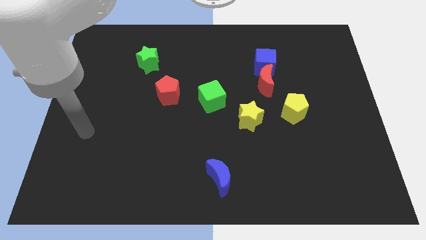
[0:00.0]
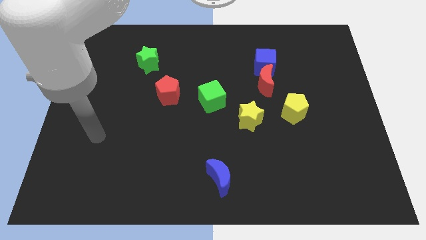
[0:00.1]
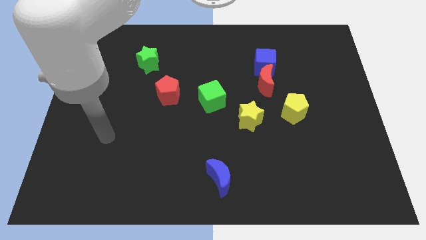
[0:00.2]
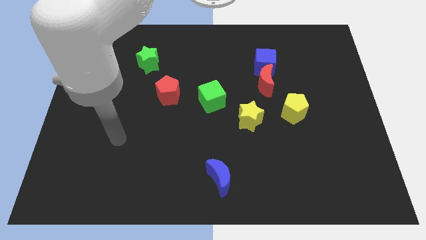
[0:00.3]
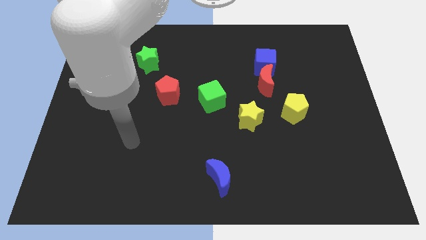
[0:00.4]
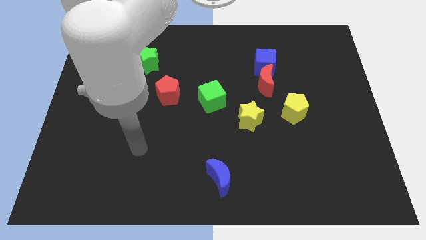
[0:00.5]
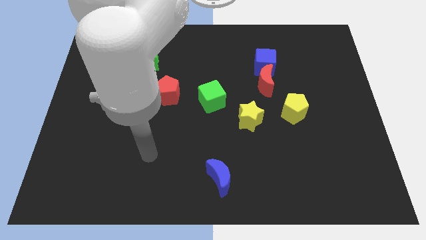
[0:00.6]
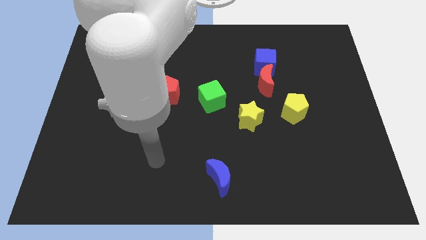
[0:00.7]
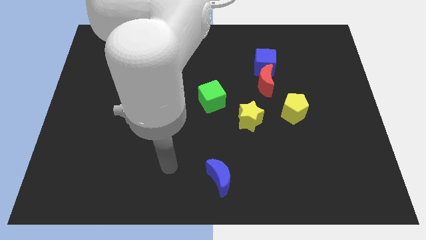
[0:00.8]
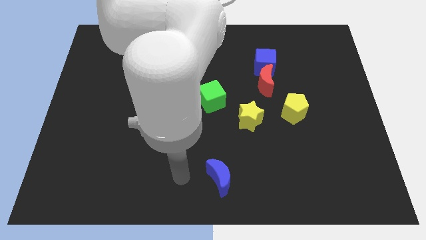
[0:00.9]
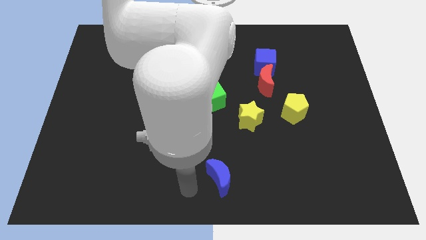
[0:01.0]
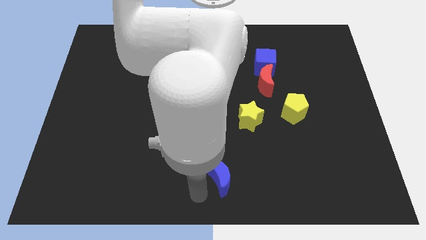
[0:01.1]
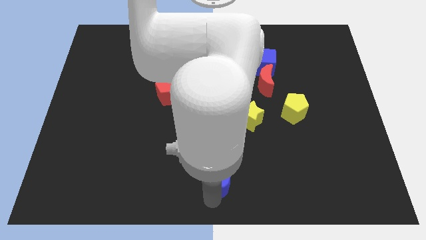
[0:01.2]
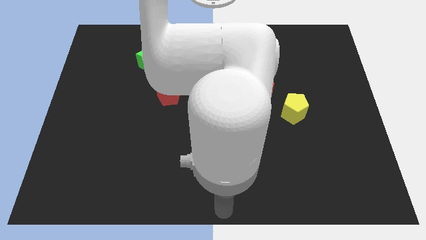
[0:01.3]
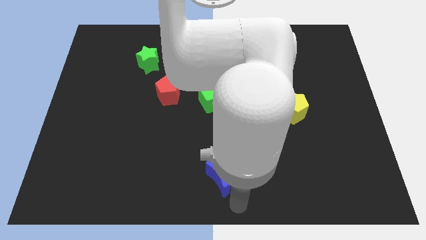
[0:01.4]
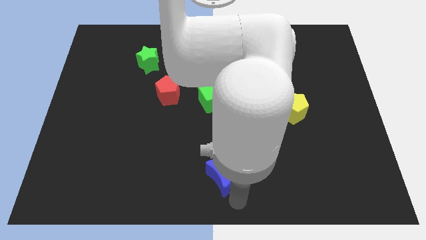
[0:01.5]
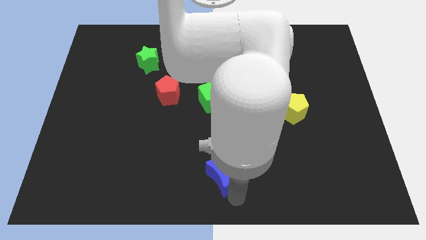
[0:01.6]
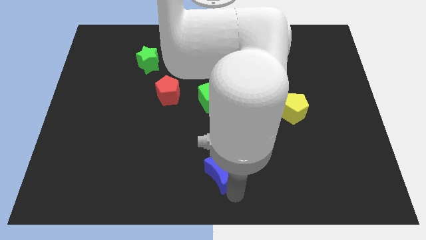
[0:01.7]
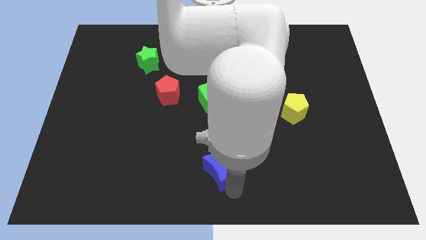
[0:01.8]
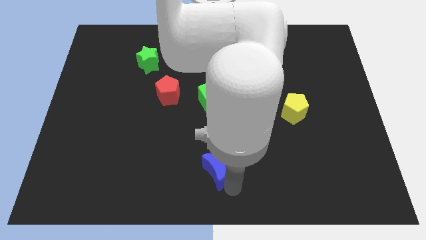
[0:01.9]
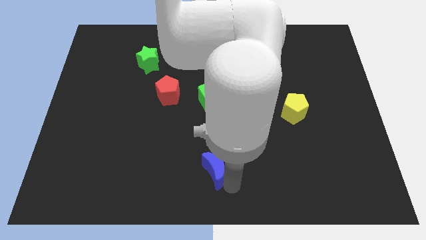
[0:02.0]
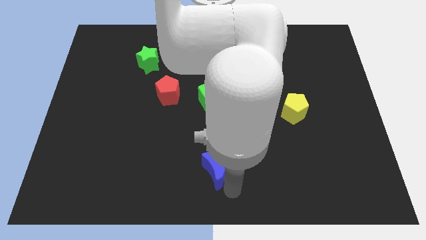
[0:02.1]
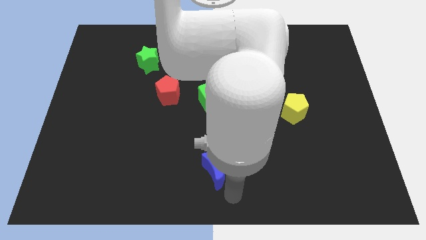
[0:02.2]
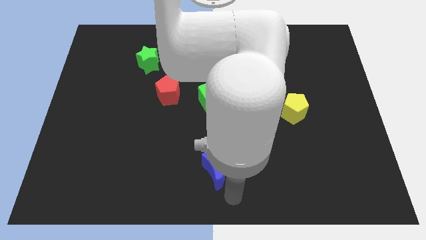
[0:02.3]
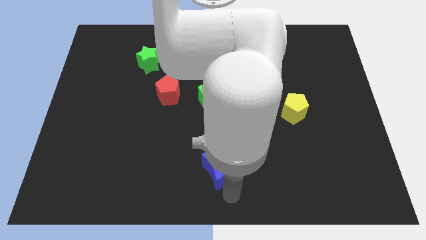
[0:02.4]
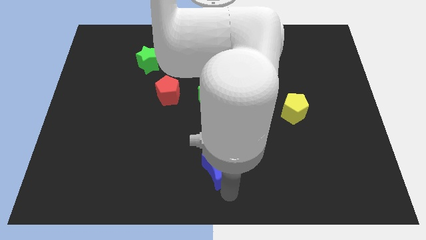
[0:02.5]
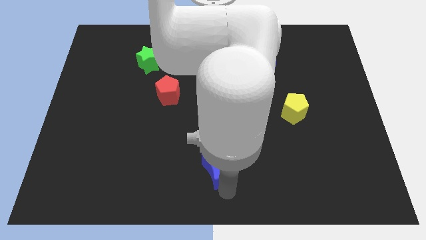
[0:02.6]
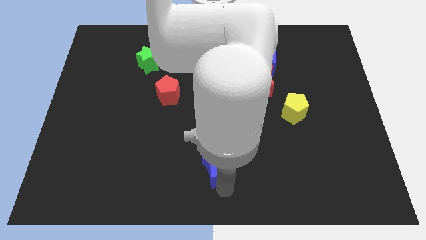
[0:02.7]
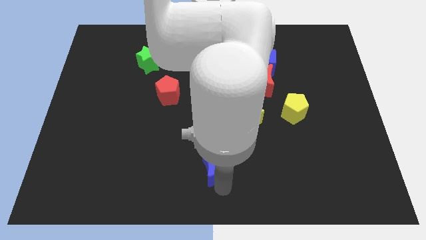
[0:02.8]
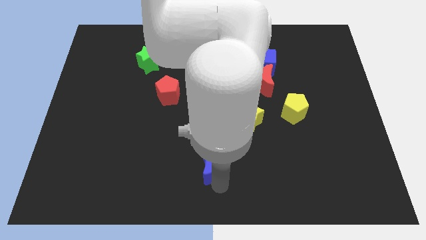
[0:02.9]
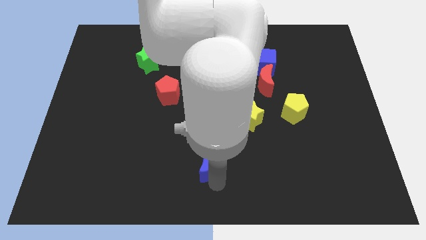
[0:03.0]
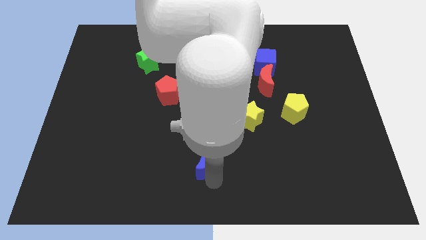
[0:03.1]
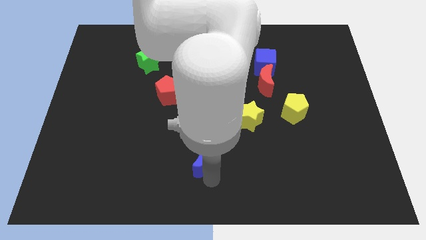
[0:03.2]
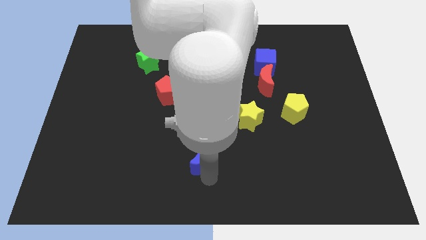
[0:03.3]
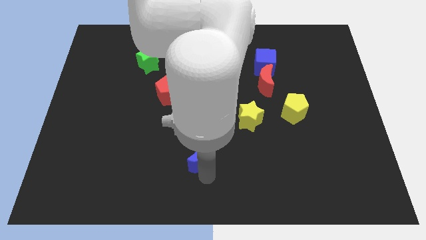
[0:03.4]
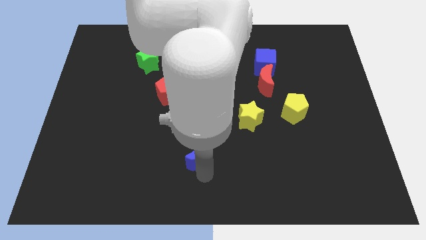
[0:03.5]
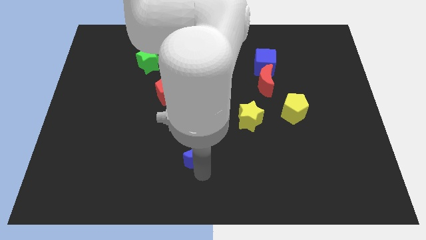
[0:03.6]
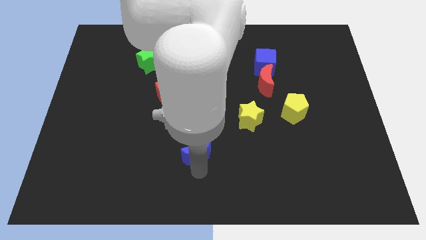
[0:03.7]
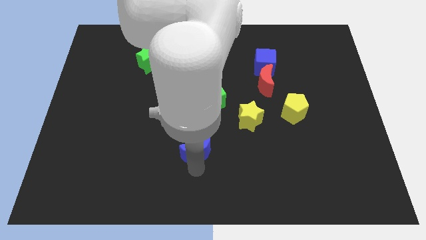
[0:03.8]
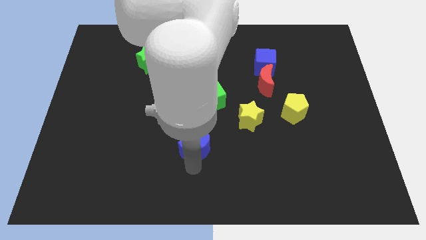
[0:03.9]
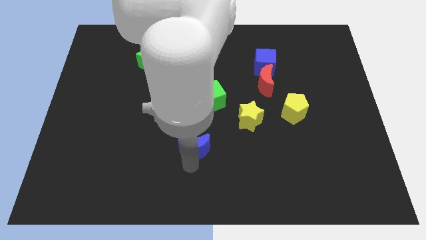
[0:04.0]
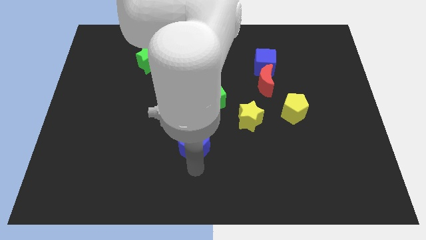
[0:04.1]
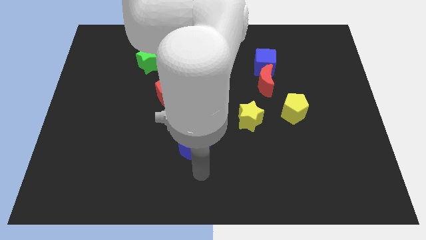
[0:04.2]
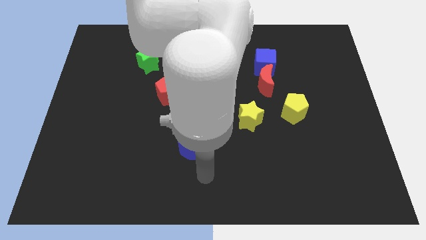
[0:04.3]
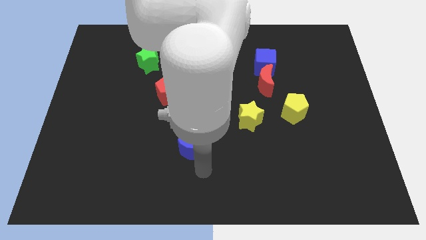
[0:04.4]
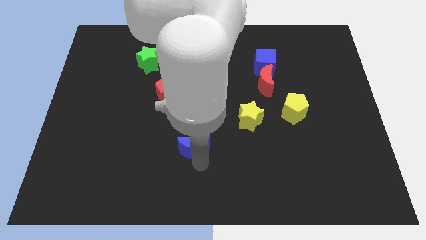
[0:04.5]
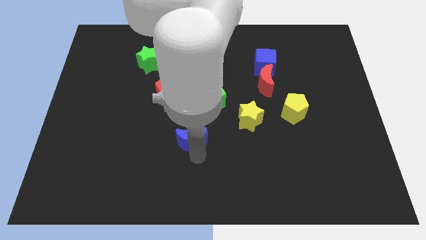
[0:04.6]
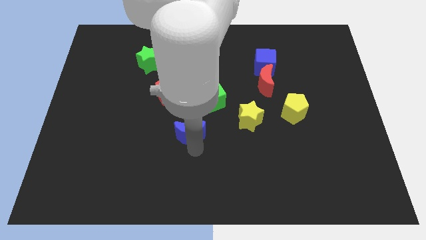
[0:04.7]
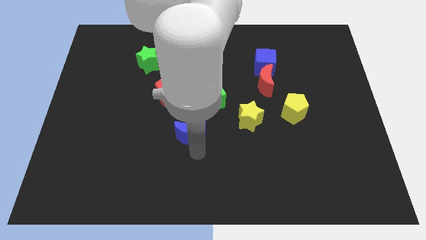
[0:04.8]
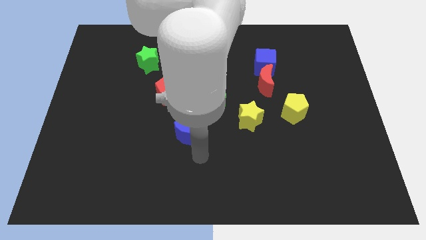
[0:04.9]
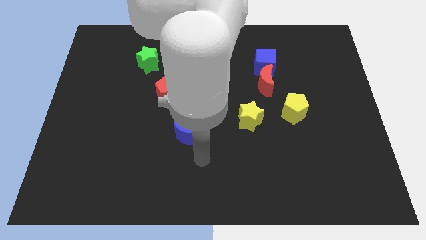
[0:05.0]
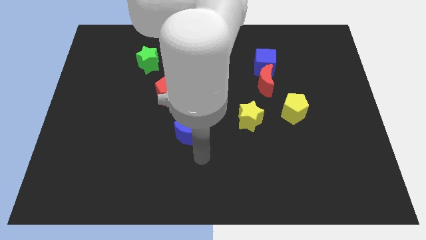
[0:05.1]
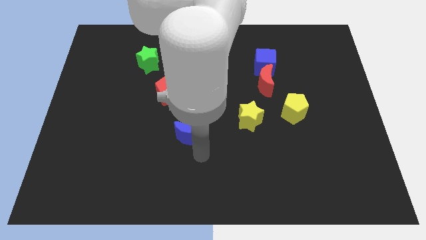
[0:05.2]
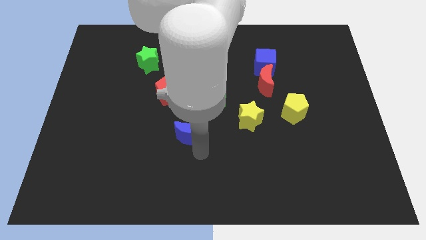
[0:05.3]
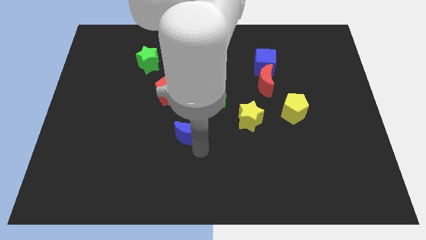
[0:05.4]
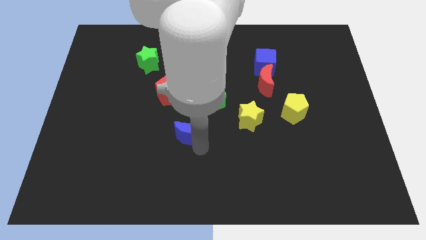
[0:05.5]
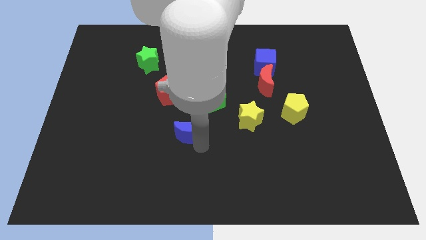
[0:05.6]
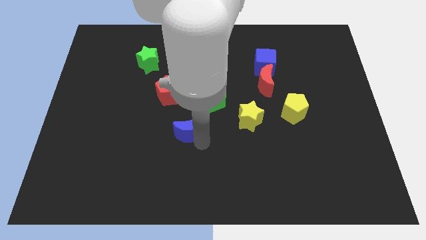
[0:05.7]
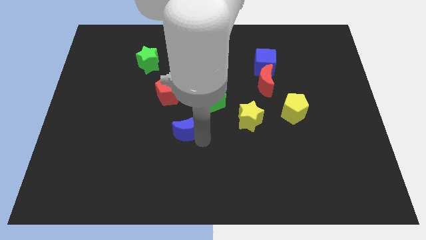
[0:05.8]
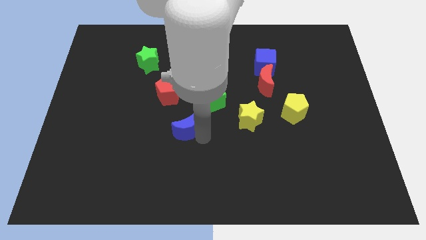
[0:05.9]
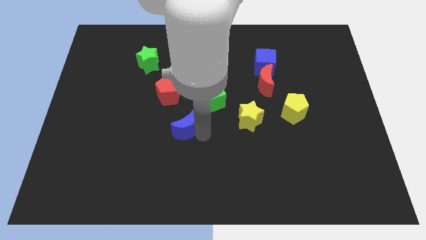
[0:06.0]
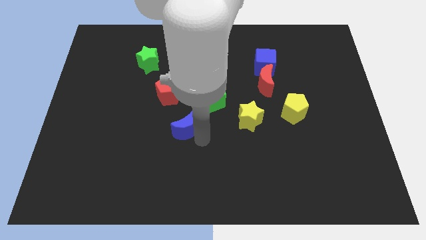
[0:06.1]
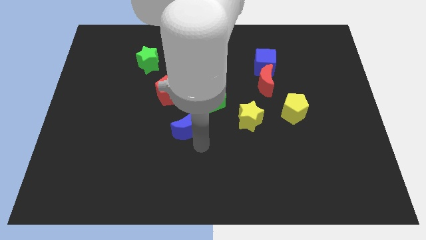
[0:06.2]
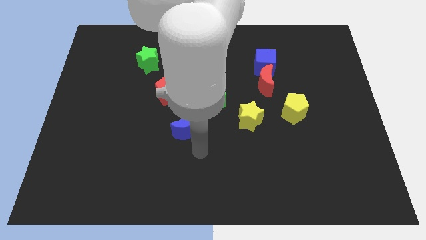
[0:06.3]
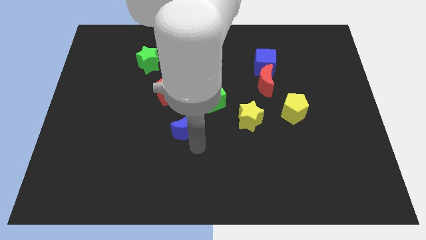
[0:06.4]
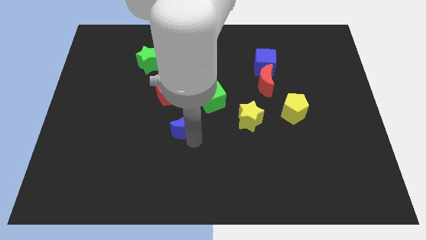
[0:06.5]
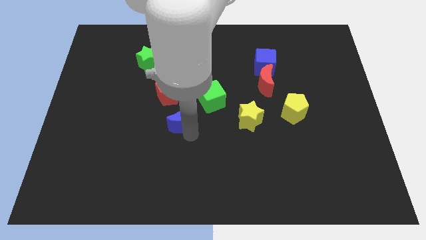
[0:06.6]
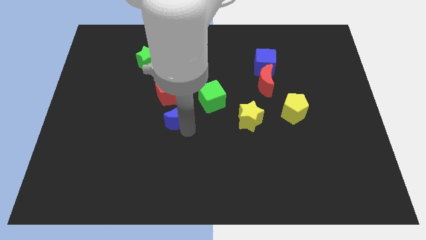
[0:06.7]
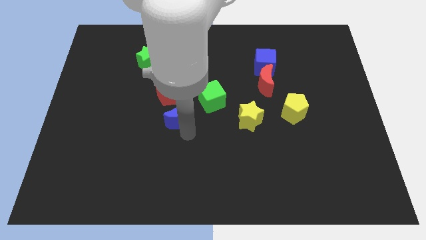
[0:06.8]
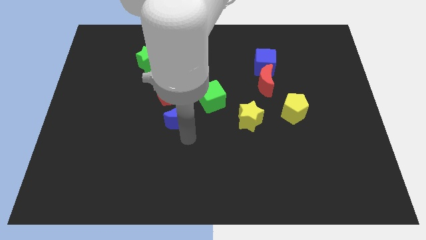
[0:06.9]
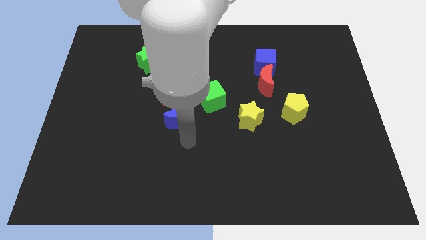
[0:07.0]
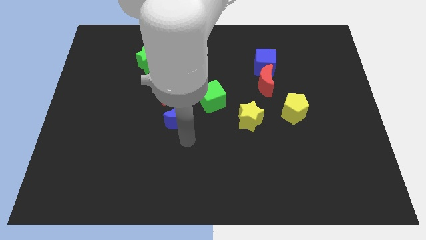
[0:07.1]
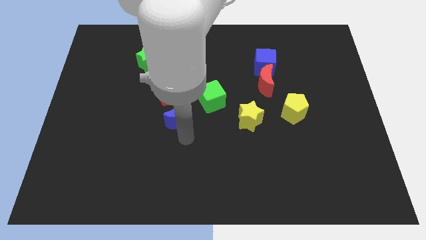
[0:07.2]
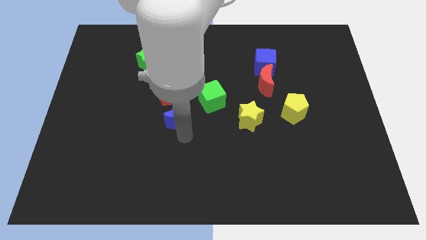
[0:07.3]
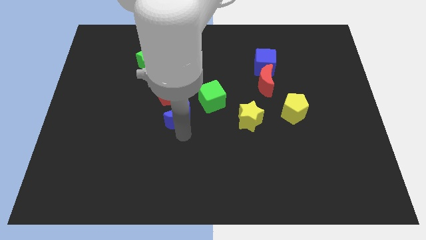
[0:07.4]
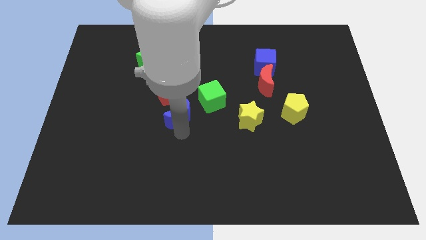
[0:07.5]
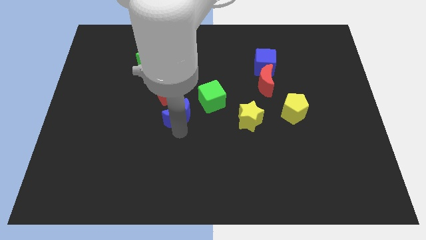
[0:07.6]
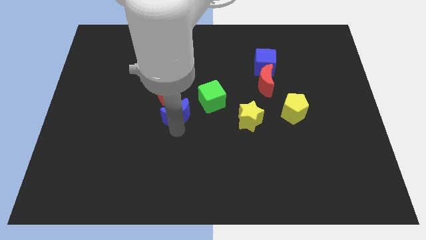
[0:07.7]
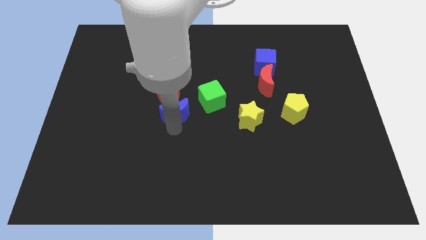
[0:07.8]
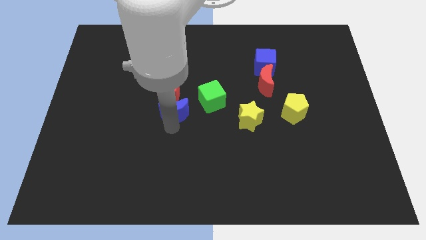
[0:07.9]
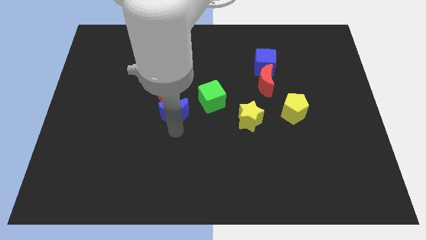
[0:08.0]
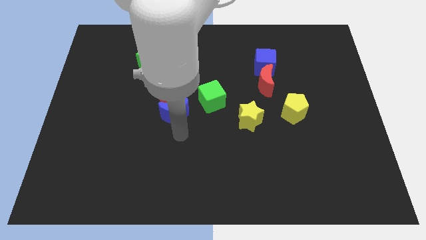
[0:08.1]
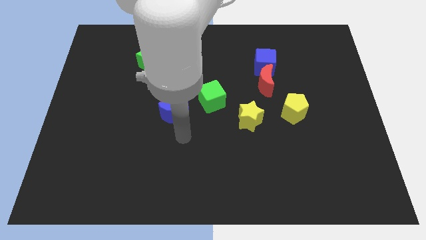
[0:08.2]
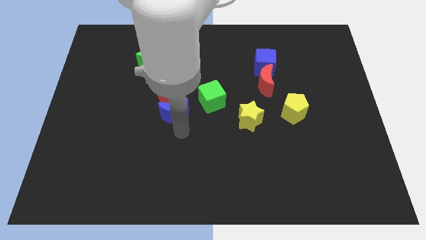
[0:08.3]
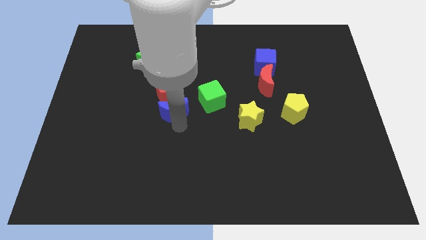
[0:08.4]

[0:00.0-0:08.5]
push the blue moon close to the red pentagon
